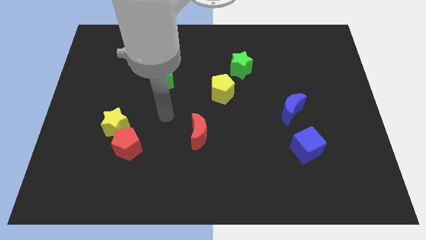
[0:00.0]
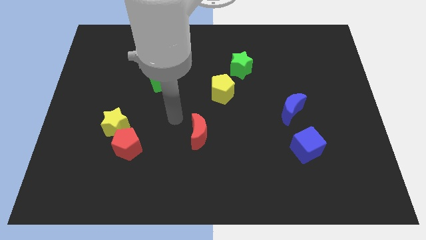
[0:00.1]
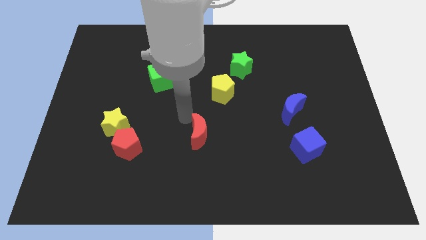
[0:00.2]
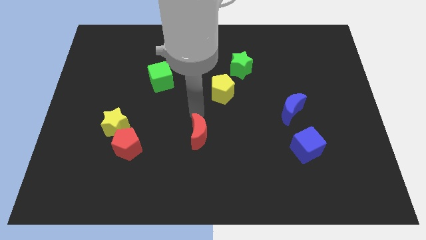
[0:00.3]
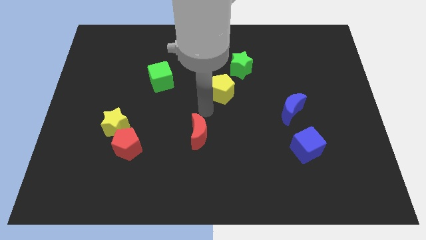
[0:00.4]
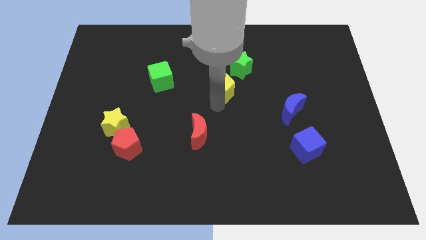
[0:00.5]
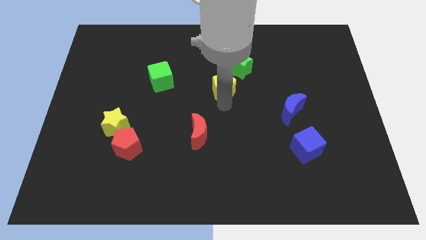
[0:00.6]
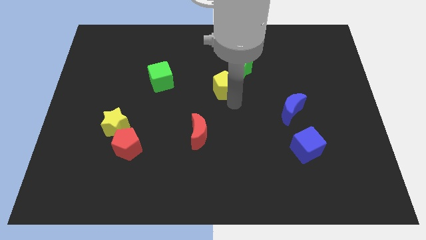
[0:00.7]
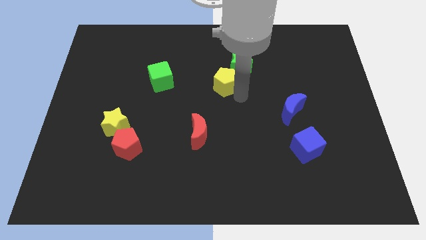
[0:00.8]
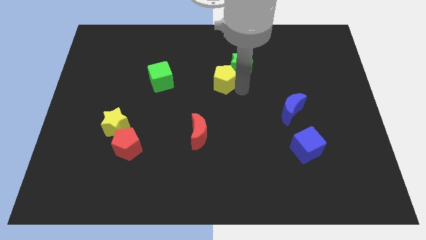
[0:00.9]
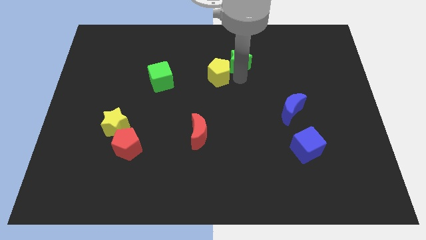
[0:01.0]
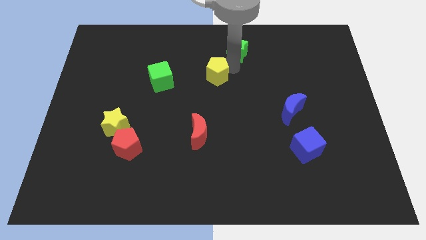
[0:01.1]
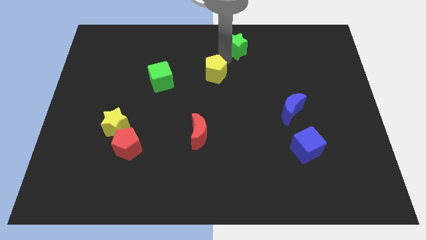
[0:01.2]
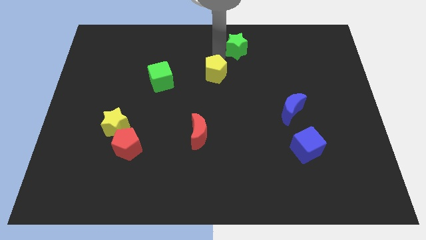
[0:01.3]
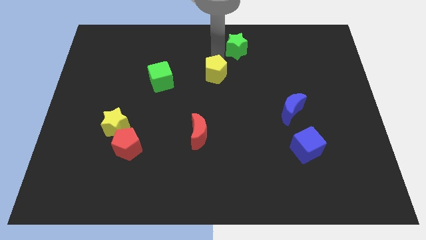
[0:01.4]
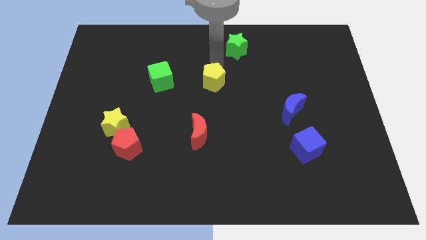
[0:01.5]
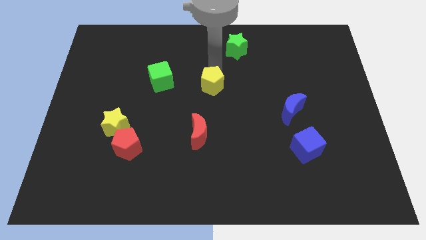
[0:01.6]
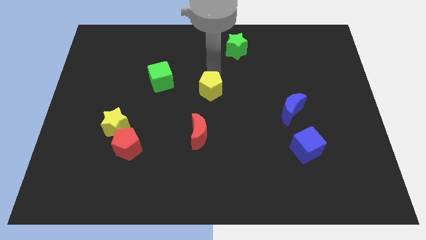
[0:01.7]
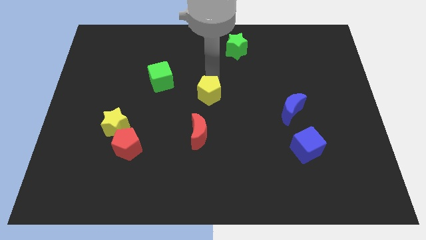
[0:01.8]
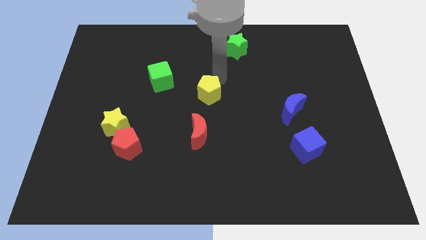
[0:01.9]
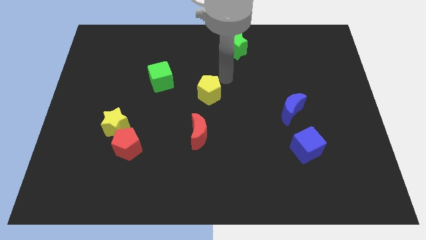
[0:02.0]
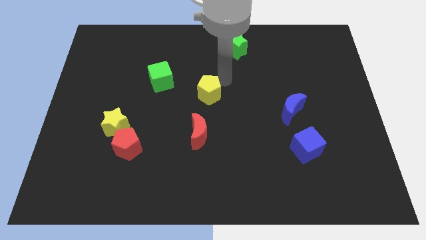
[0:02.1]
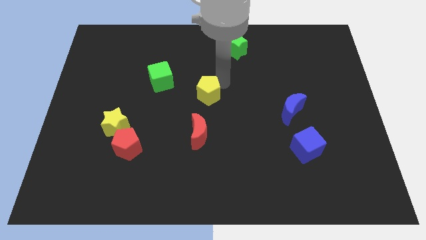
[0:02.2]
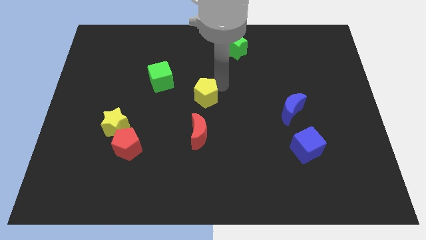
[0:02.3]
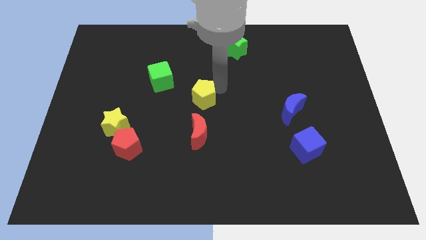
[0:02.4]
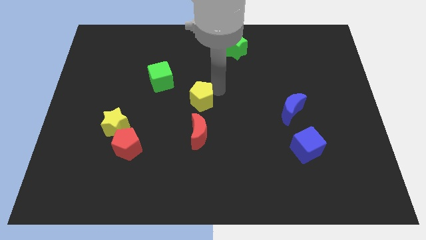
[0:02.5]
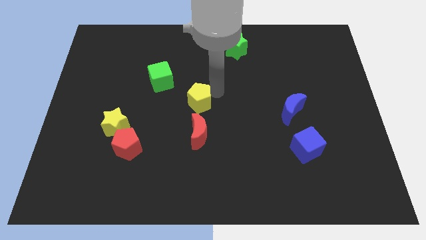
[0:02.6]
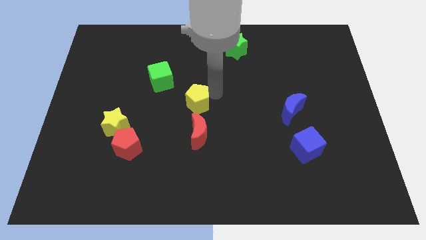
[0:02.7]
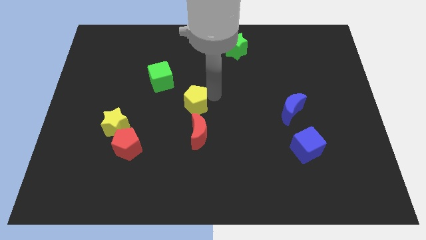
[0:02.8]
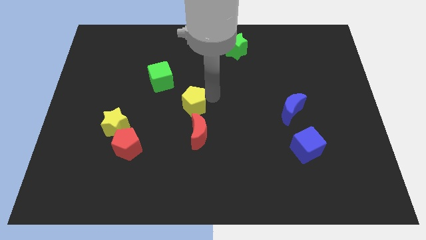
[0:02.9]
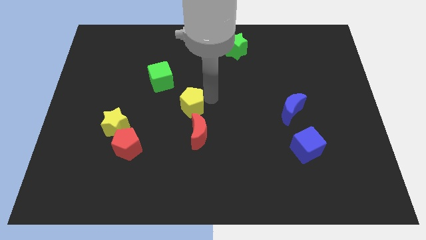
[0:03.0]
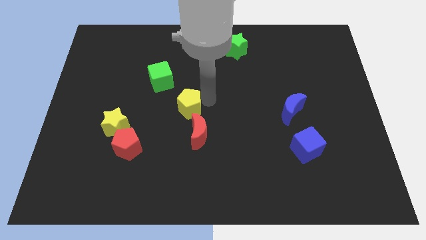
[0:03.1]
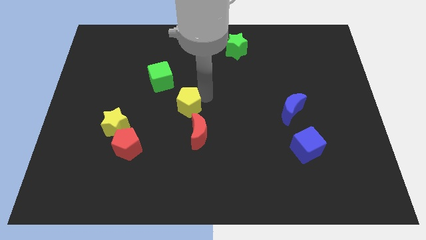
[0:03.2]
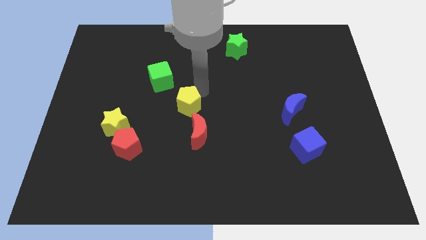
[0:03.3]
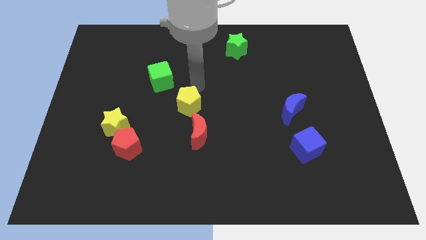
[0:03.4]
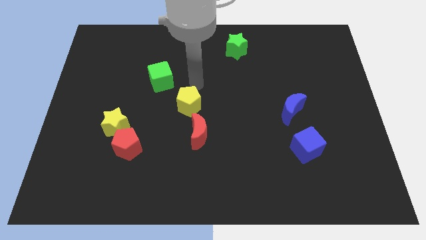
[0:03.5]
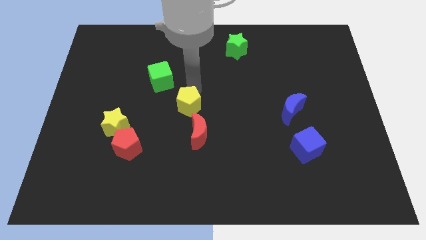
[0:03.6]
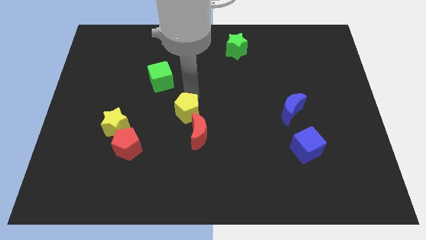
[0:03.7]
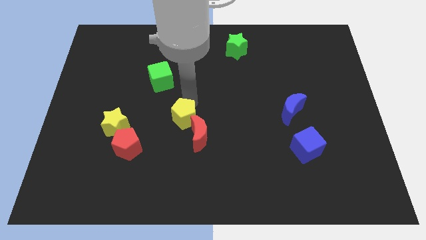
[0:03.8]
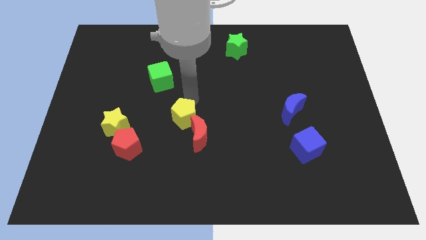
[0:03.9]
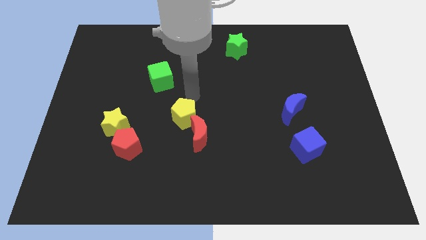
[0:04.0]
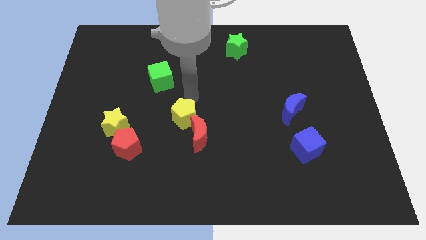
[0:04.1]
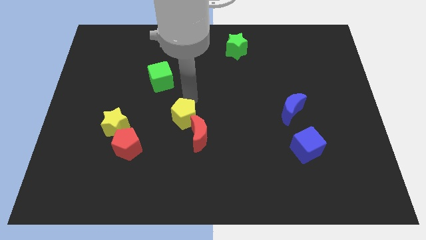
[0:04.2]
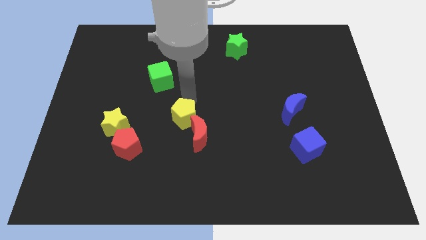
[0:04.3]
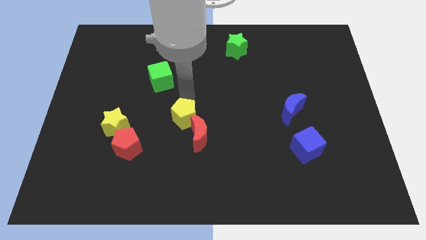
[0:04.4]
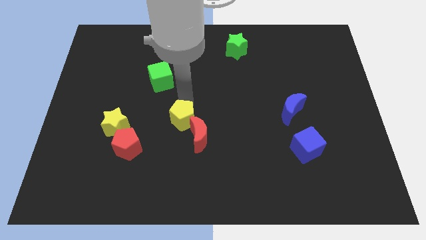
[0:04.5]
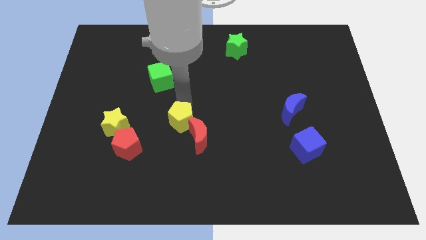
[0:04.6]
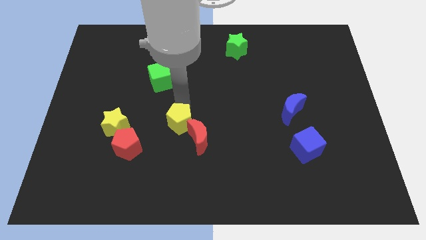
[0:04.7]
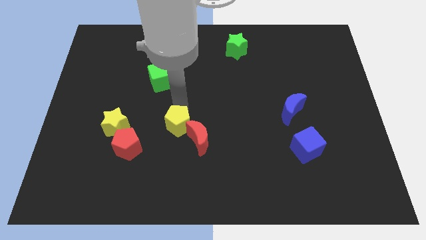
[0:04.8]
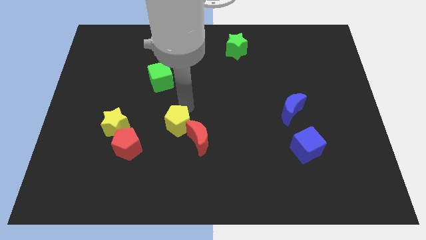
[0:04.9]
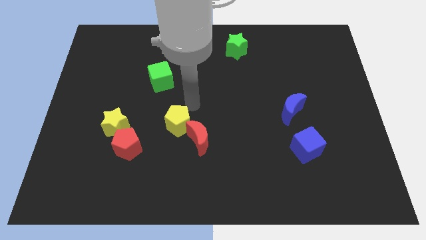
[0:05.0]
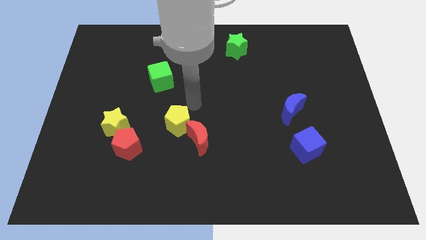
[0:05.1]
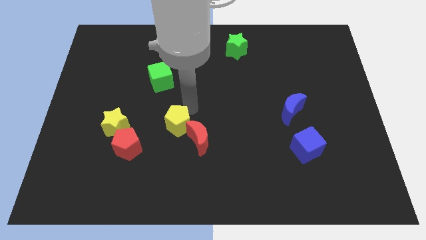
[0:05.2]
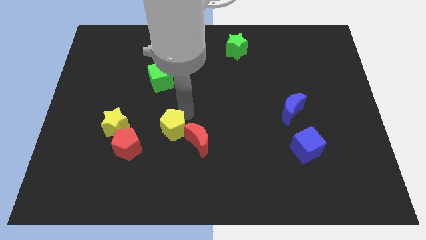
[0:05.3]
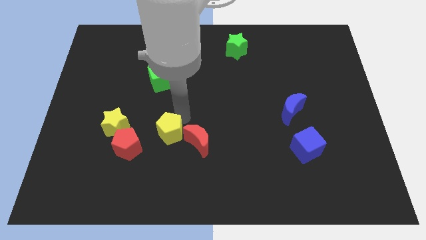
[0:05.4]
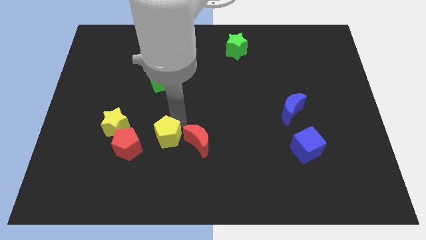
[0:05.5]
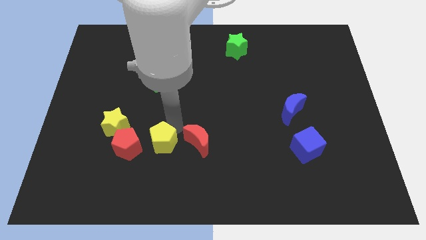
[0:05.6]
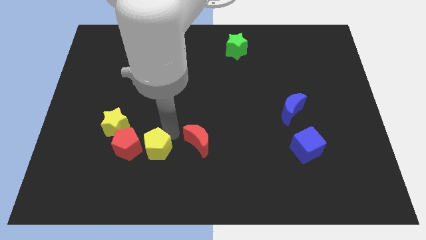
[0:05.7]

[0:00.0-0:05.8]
move the yellow pentagon downwards and left

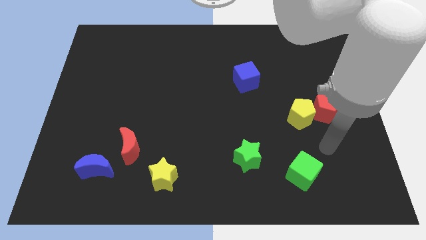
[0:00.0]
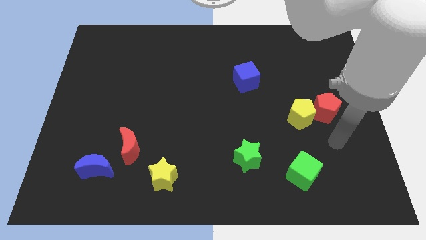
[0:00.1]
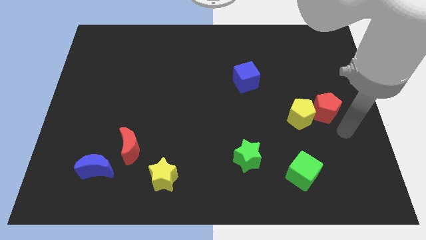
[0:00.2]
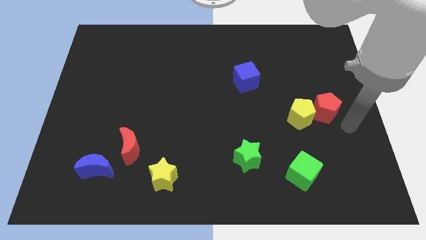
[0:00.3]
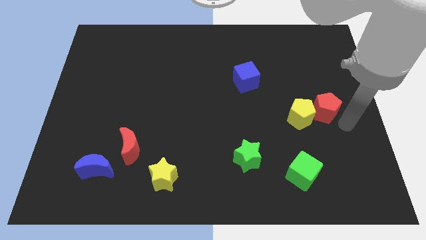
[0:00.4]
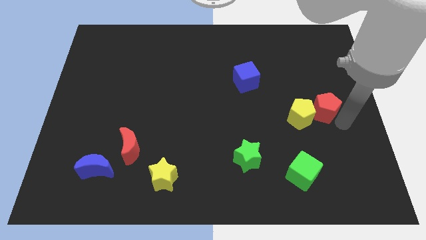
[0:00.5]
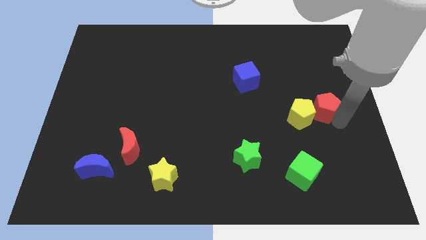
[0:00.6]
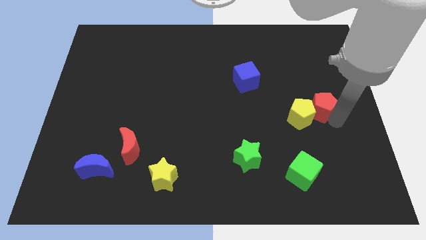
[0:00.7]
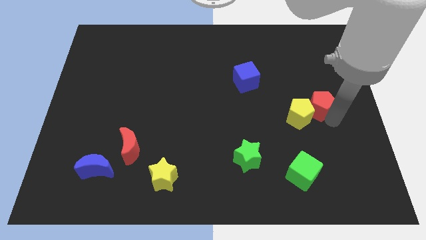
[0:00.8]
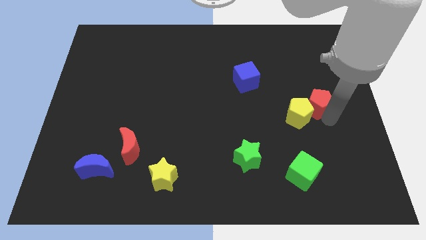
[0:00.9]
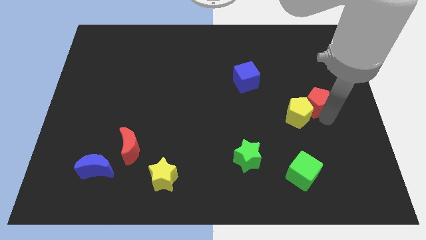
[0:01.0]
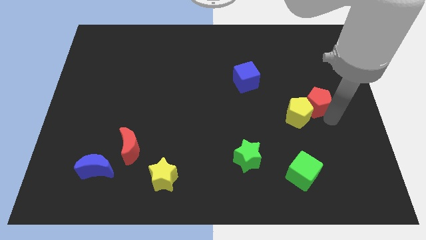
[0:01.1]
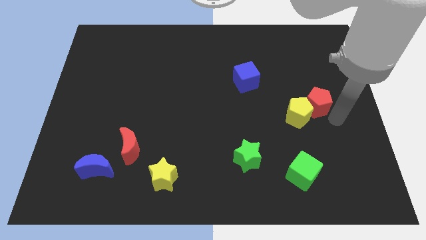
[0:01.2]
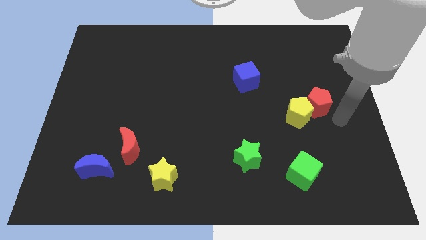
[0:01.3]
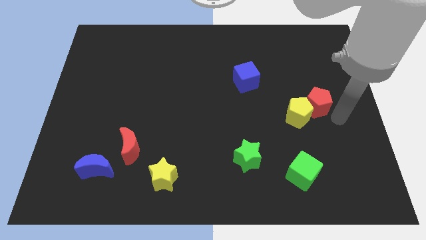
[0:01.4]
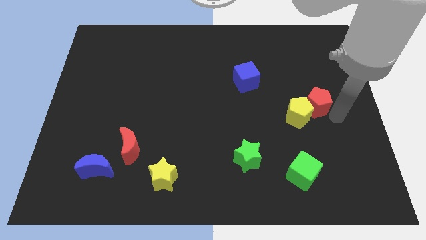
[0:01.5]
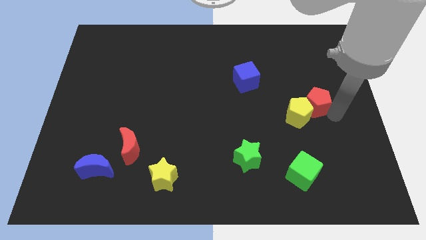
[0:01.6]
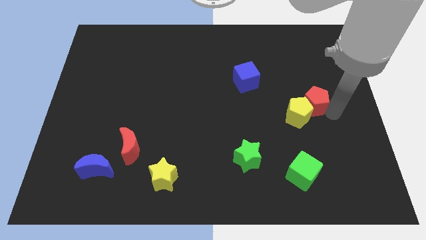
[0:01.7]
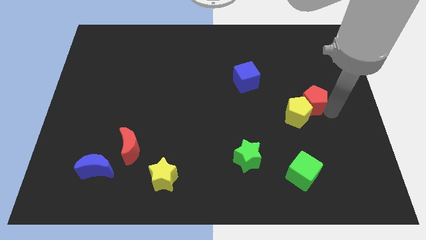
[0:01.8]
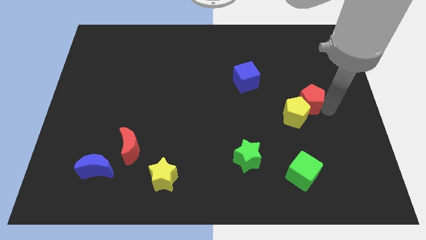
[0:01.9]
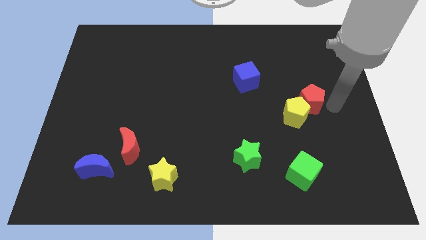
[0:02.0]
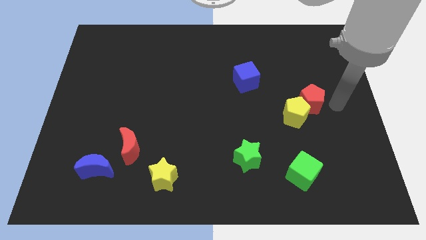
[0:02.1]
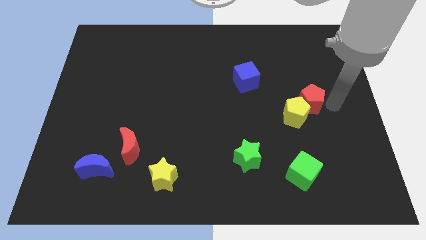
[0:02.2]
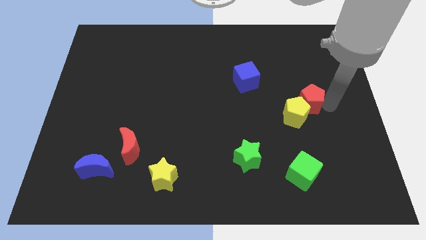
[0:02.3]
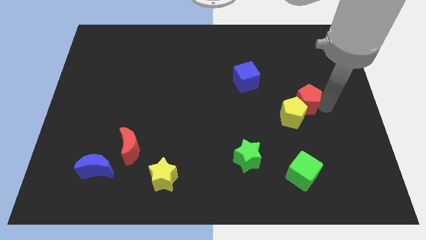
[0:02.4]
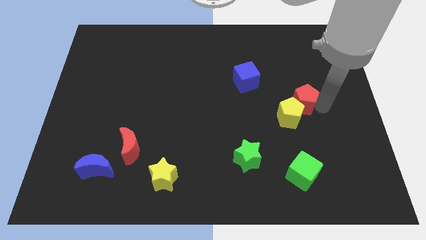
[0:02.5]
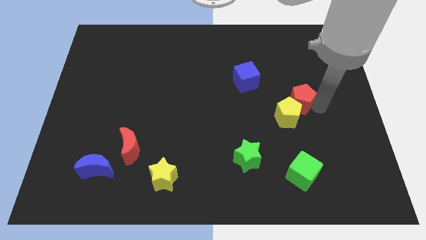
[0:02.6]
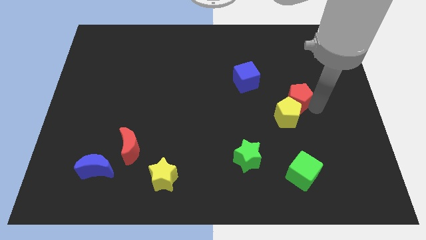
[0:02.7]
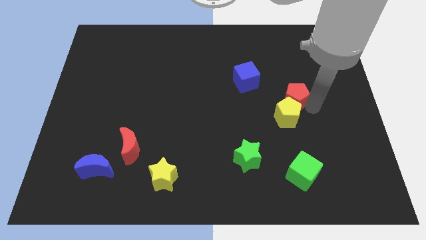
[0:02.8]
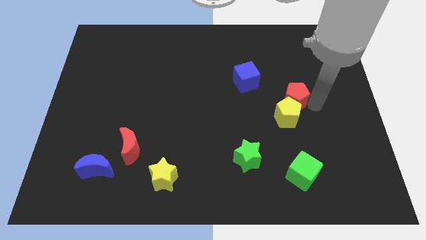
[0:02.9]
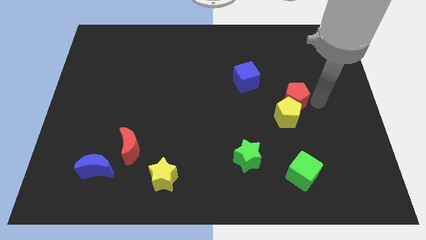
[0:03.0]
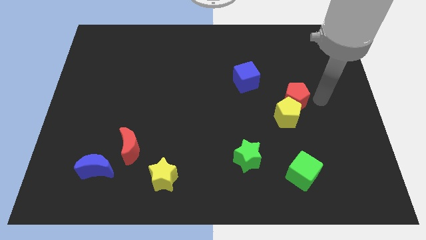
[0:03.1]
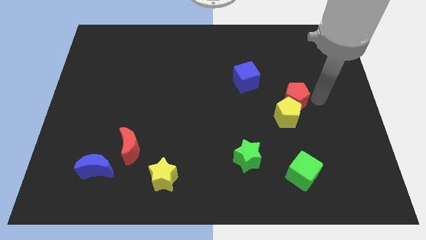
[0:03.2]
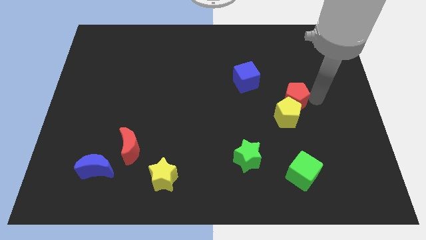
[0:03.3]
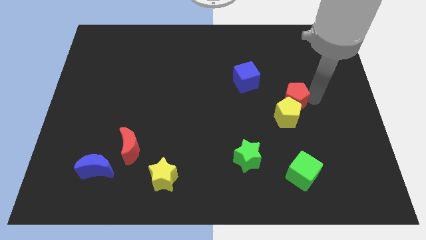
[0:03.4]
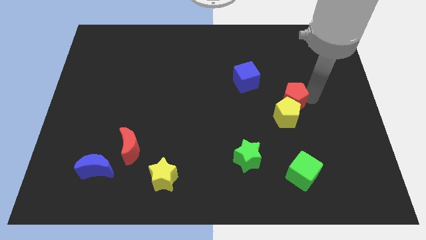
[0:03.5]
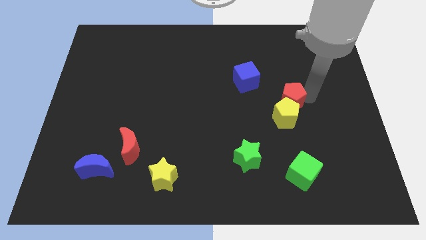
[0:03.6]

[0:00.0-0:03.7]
push the red pentagon a little to the left
